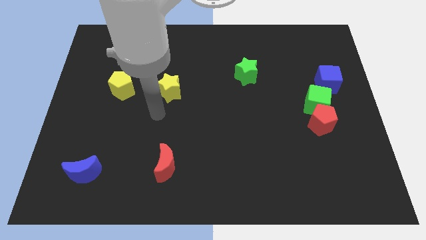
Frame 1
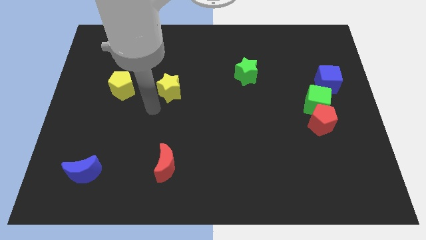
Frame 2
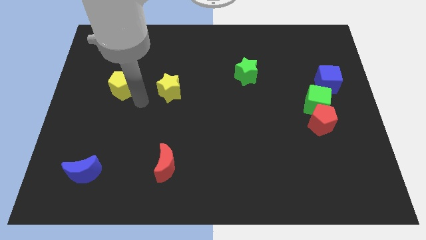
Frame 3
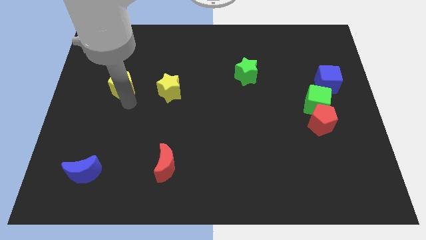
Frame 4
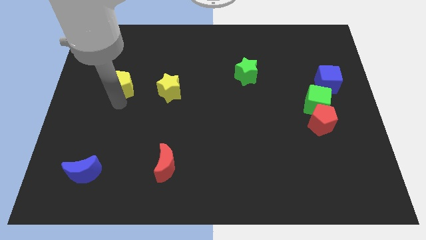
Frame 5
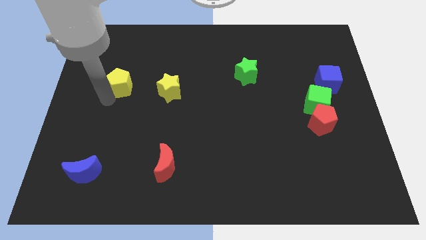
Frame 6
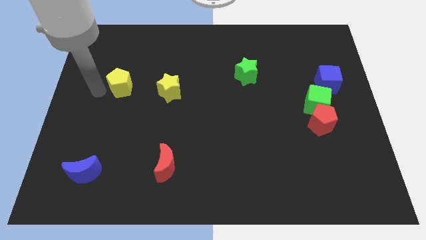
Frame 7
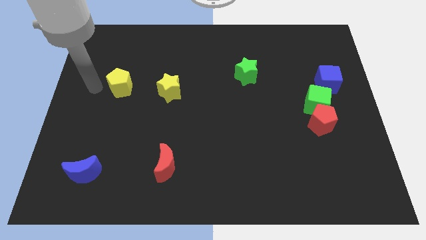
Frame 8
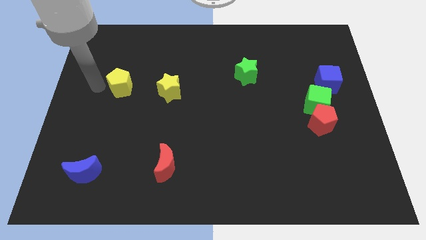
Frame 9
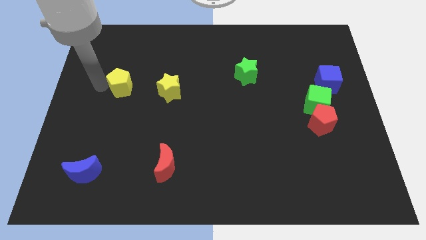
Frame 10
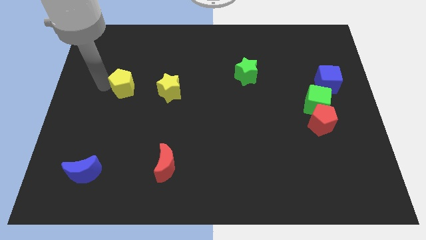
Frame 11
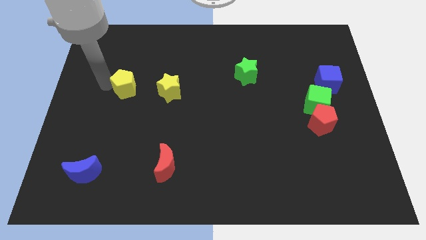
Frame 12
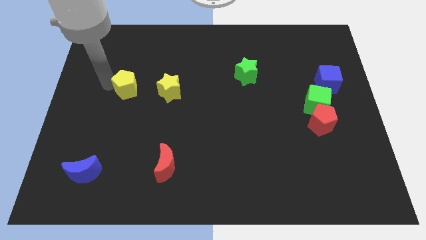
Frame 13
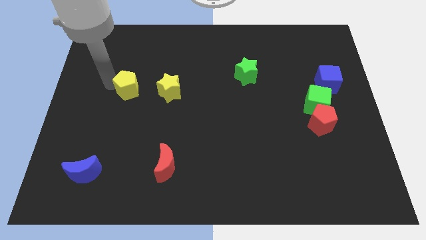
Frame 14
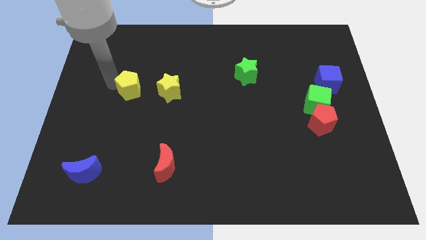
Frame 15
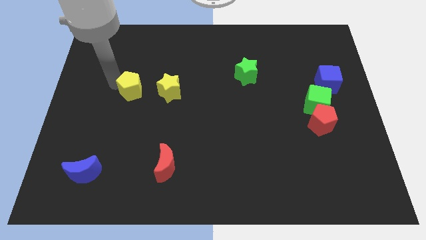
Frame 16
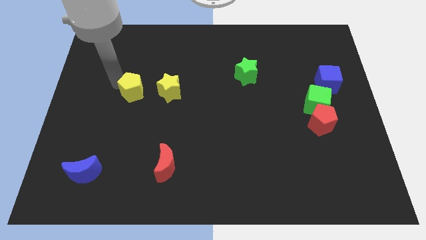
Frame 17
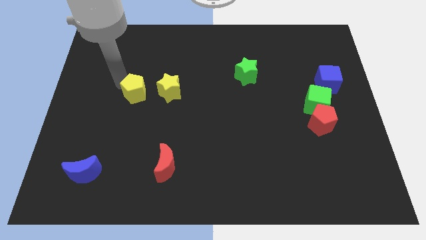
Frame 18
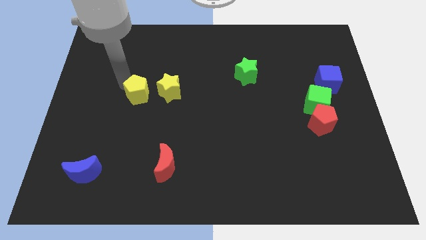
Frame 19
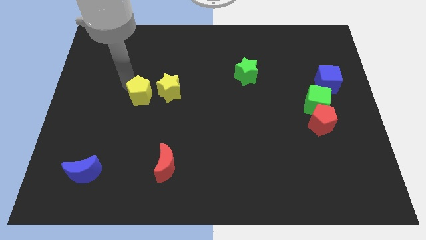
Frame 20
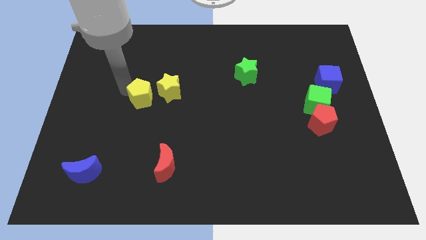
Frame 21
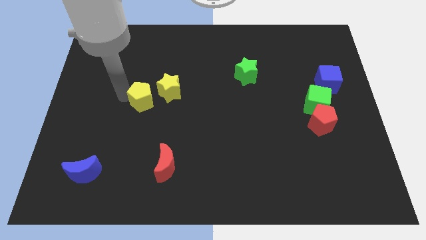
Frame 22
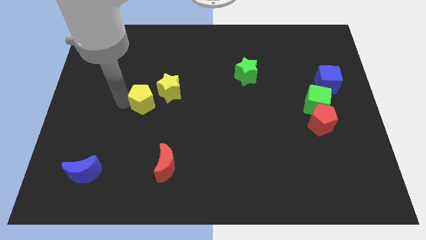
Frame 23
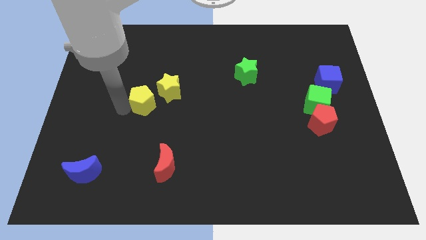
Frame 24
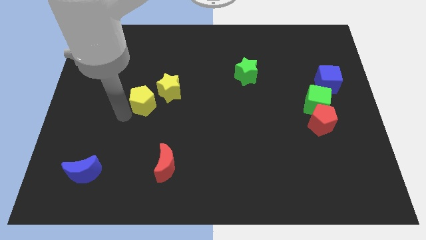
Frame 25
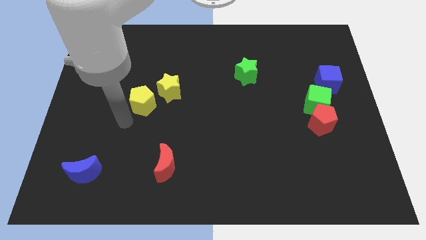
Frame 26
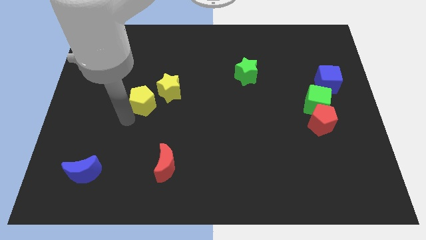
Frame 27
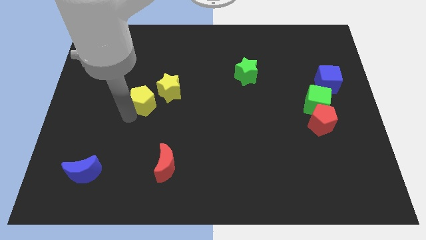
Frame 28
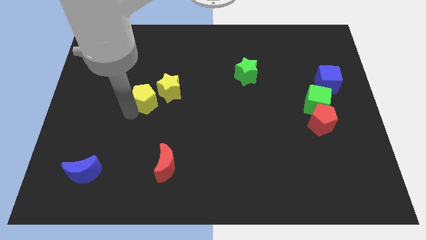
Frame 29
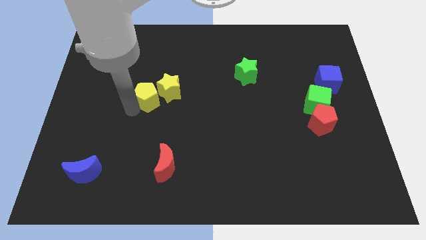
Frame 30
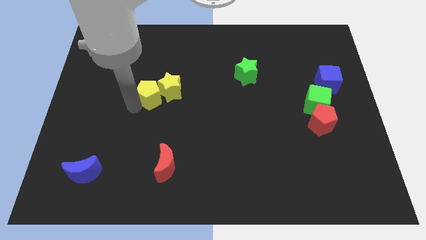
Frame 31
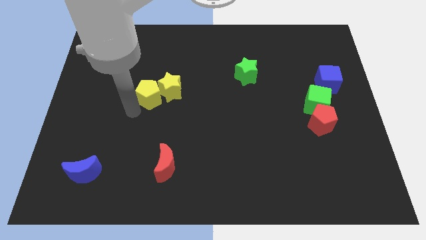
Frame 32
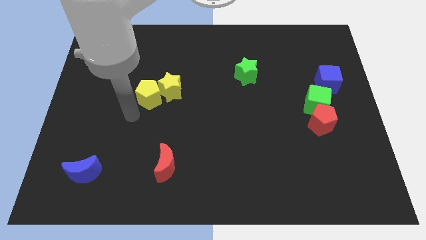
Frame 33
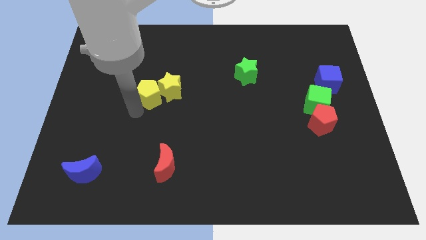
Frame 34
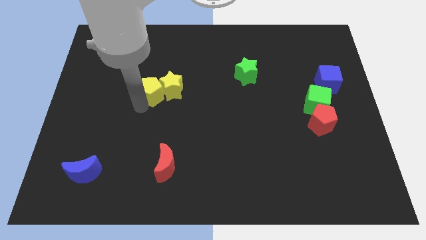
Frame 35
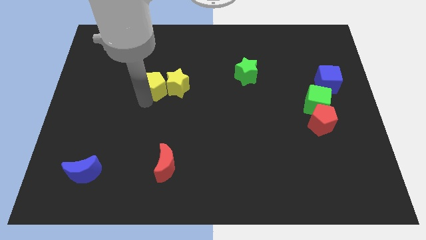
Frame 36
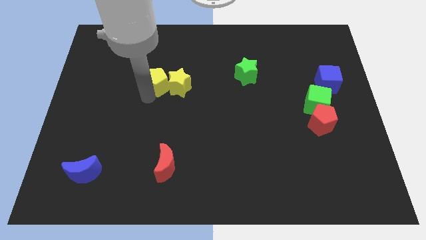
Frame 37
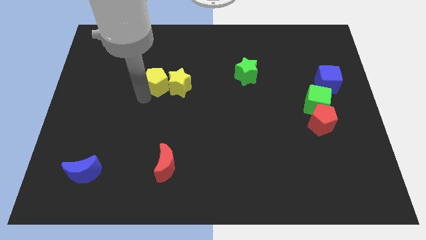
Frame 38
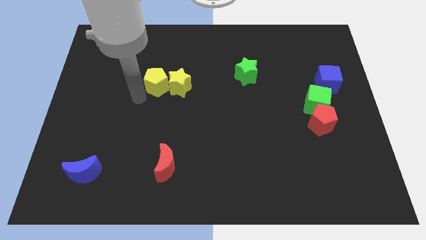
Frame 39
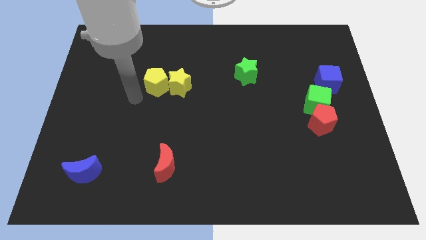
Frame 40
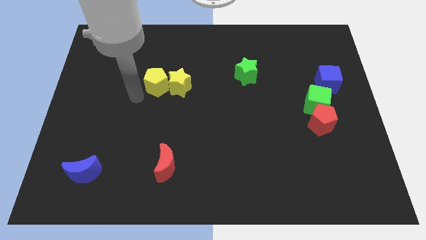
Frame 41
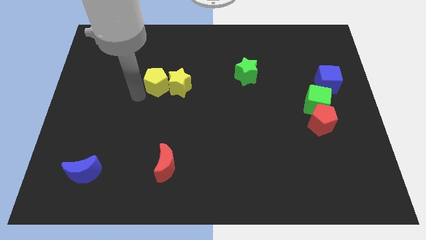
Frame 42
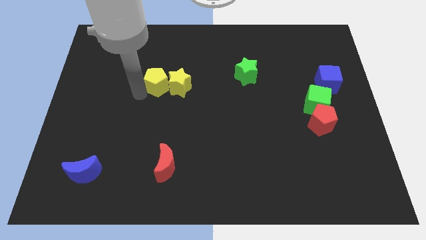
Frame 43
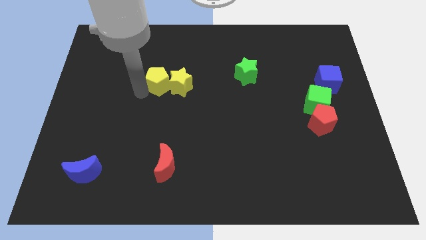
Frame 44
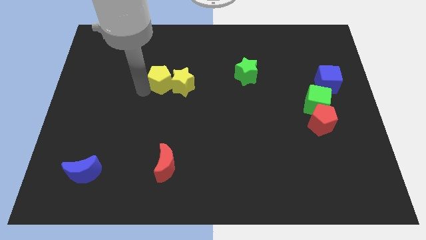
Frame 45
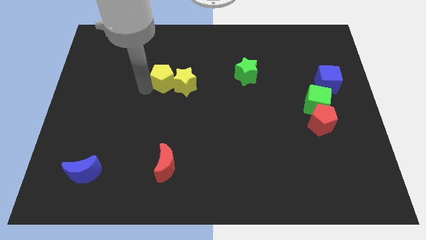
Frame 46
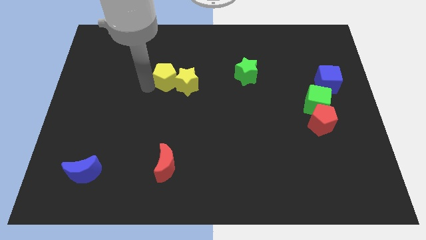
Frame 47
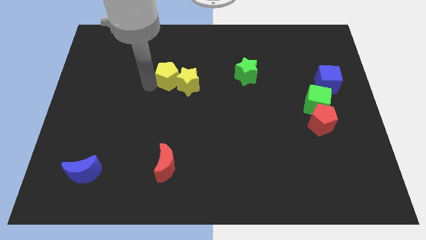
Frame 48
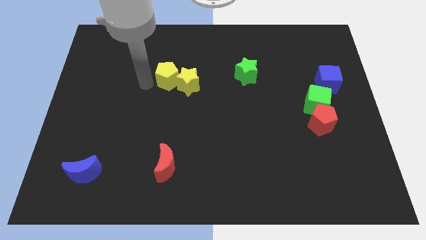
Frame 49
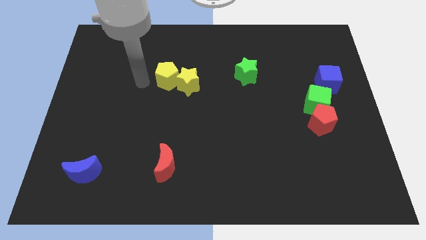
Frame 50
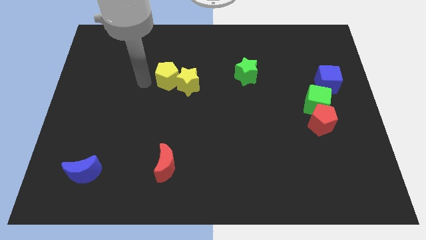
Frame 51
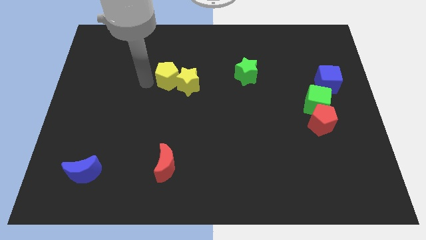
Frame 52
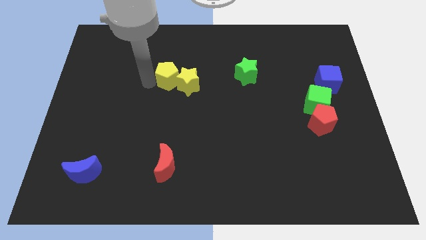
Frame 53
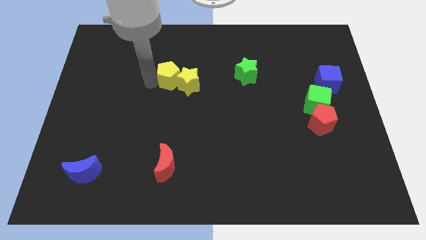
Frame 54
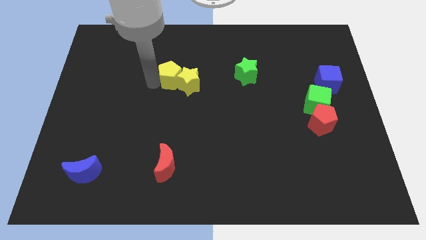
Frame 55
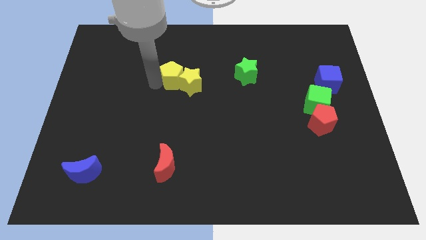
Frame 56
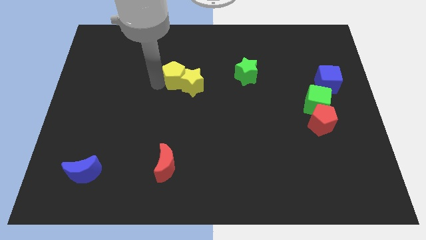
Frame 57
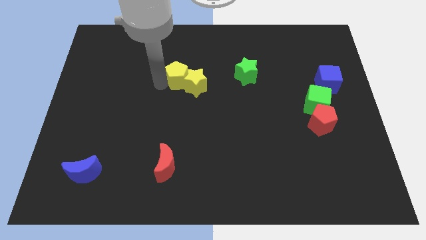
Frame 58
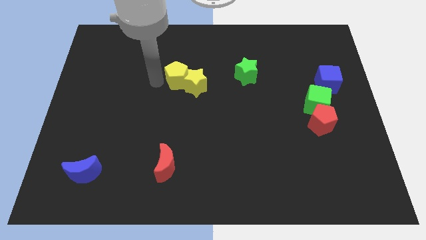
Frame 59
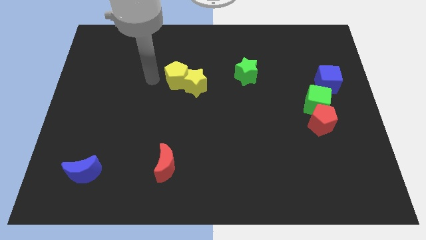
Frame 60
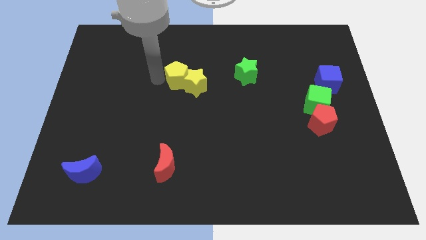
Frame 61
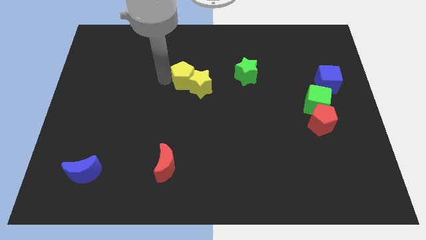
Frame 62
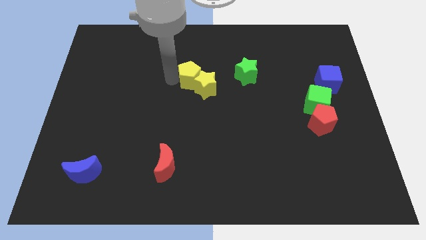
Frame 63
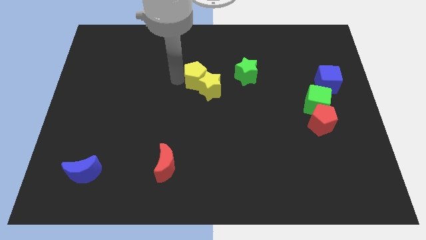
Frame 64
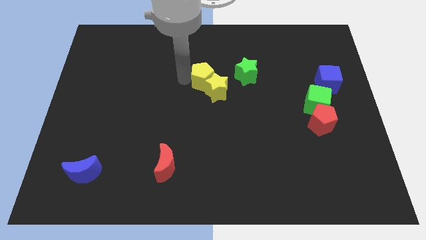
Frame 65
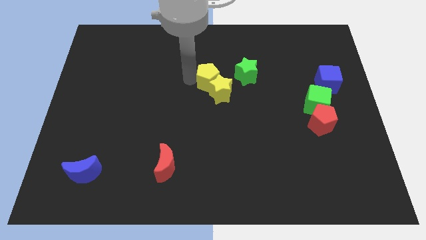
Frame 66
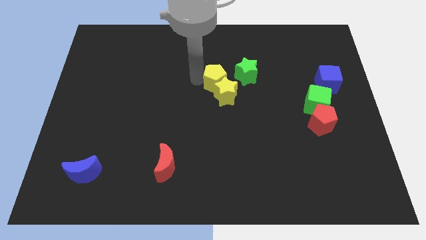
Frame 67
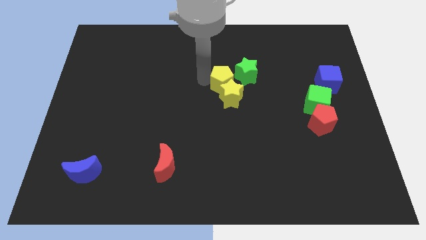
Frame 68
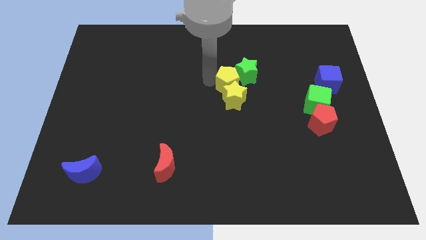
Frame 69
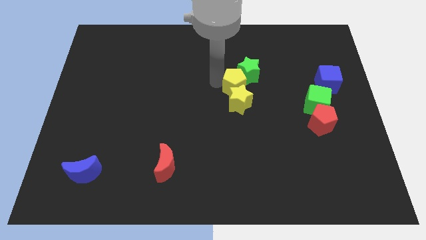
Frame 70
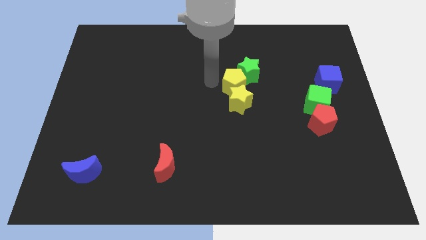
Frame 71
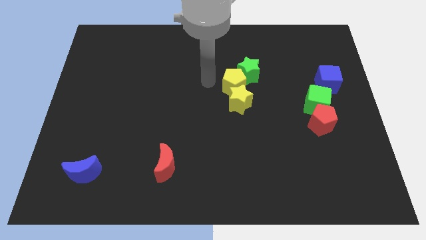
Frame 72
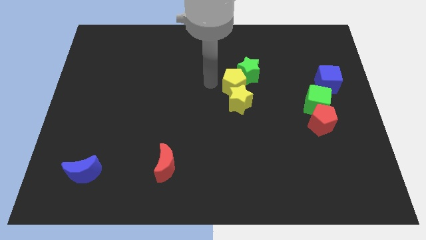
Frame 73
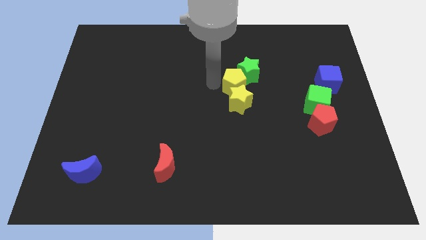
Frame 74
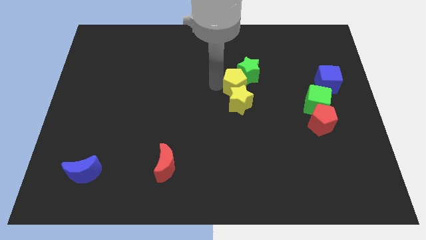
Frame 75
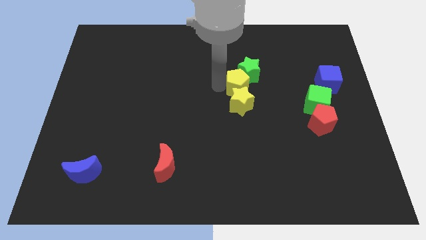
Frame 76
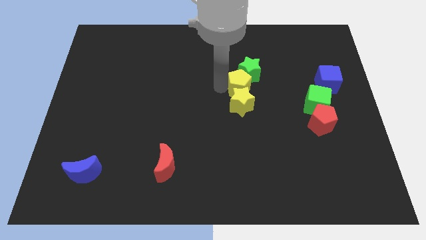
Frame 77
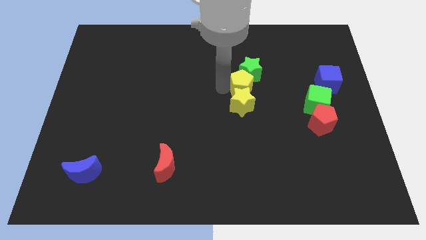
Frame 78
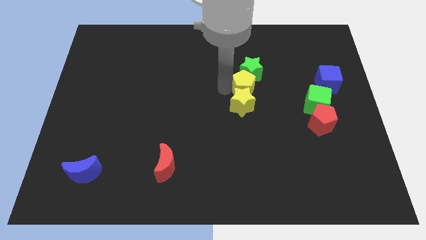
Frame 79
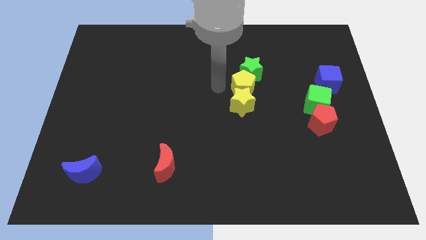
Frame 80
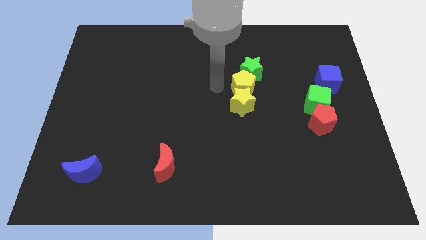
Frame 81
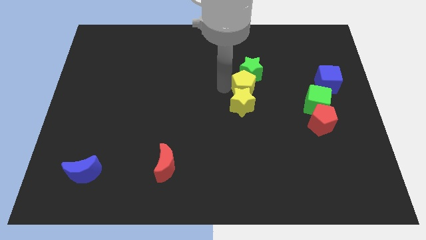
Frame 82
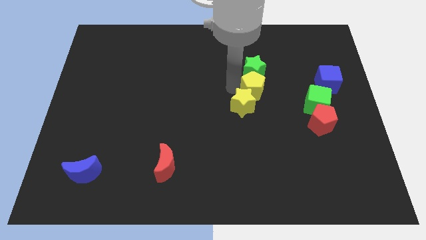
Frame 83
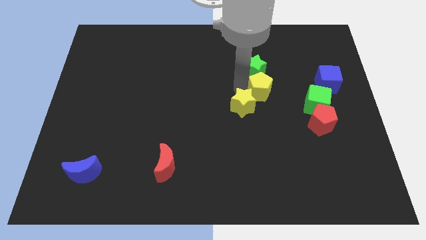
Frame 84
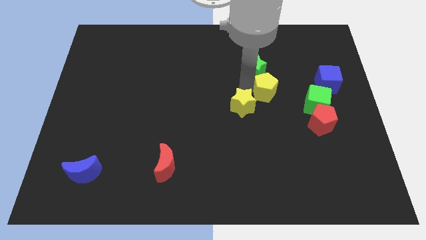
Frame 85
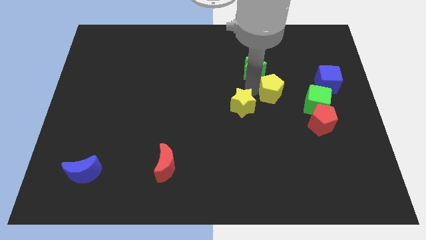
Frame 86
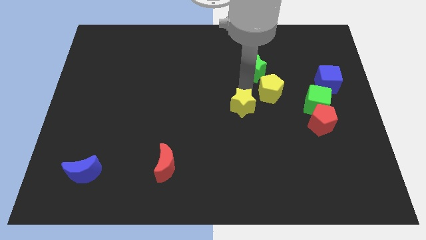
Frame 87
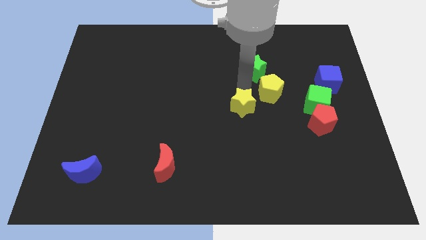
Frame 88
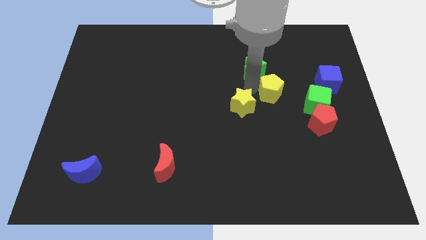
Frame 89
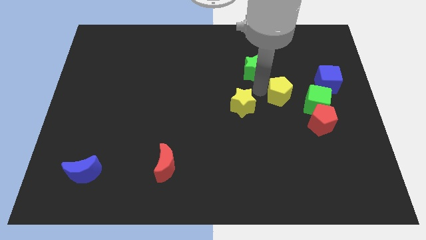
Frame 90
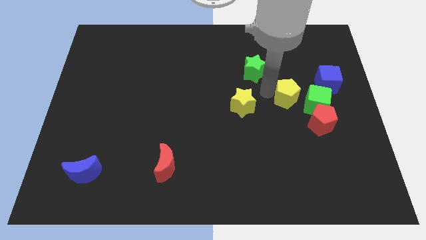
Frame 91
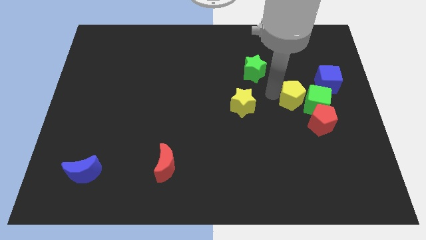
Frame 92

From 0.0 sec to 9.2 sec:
slide the yellow pentagon towards the green cube
